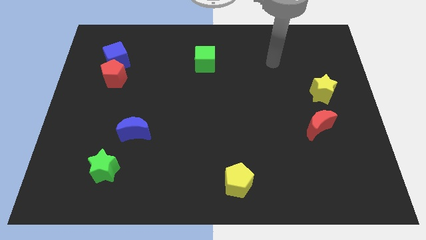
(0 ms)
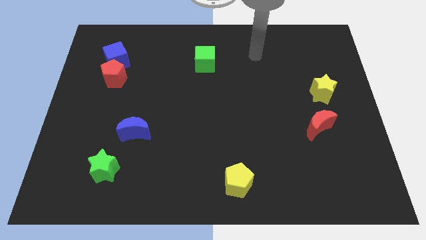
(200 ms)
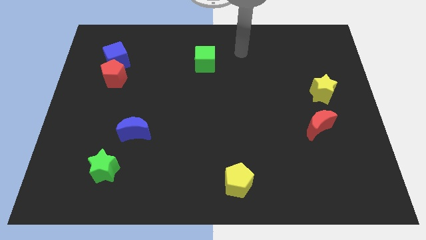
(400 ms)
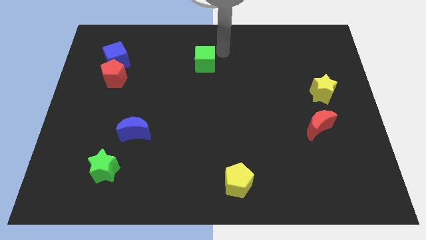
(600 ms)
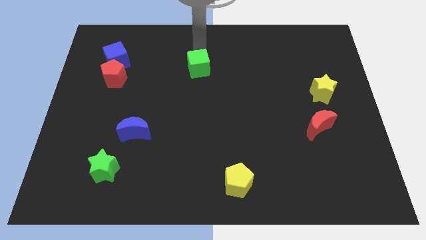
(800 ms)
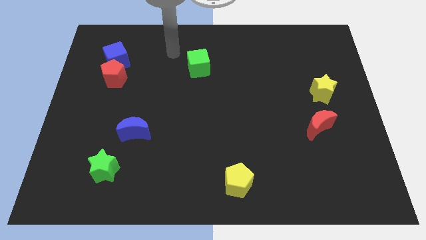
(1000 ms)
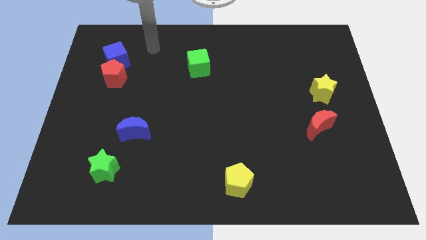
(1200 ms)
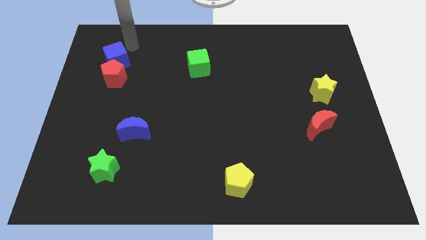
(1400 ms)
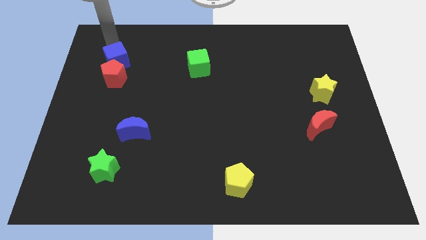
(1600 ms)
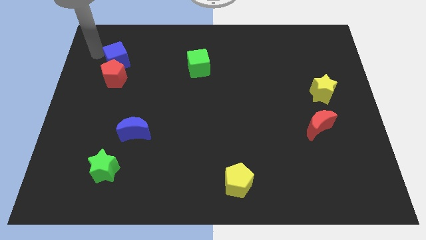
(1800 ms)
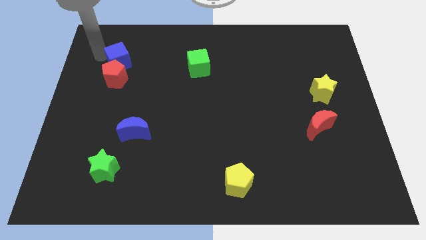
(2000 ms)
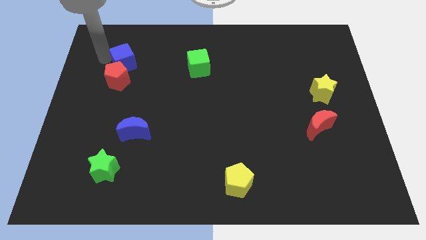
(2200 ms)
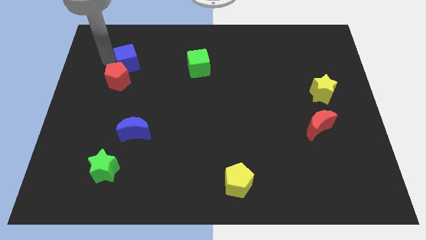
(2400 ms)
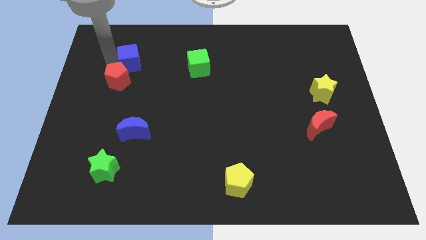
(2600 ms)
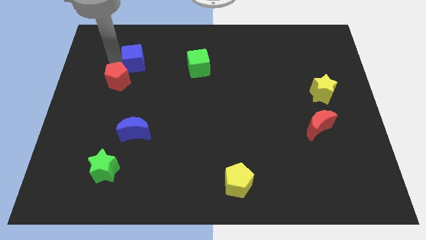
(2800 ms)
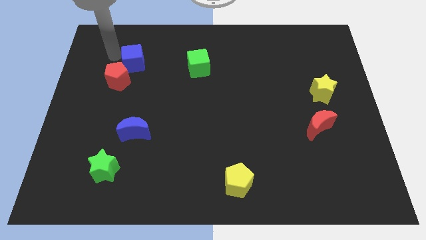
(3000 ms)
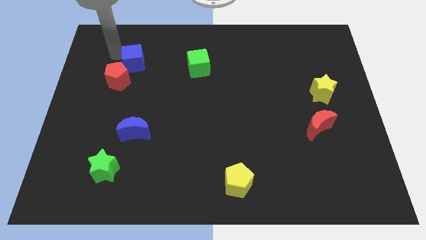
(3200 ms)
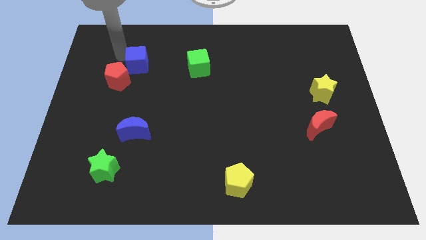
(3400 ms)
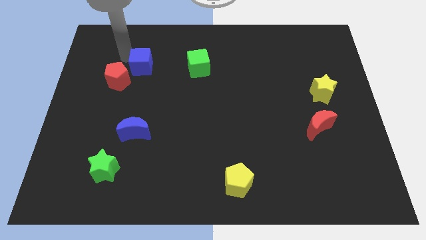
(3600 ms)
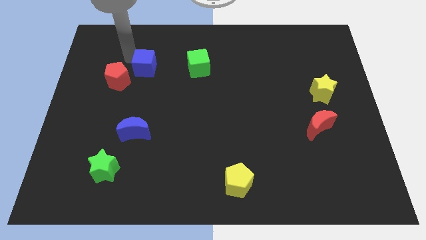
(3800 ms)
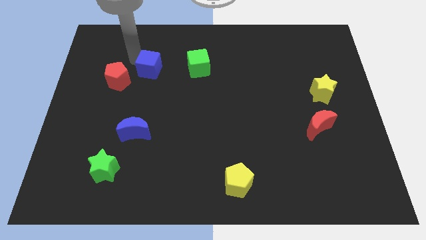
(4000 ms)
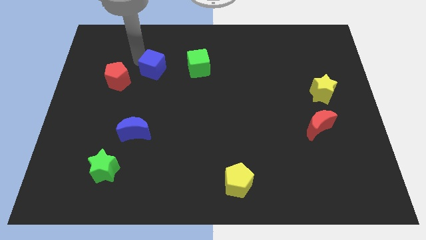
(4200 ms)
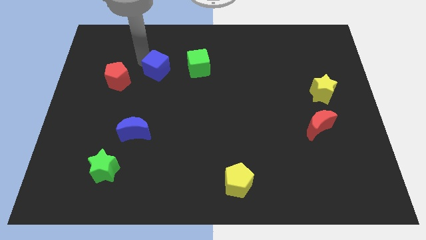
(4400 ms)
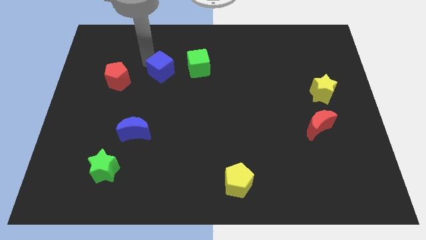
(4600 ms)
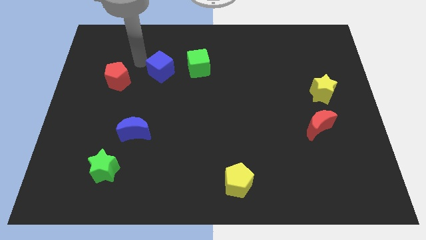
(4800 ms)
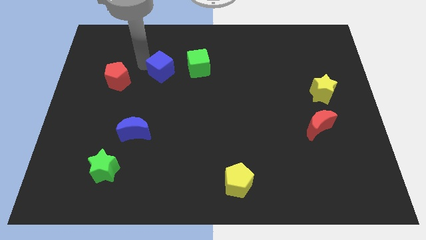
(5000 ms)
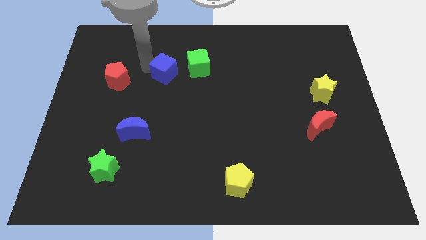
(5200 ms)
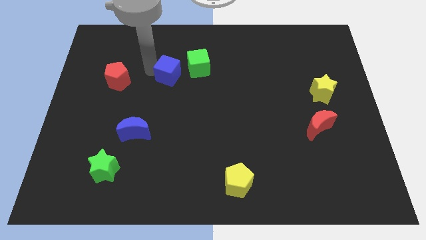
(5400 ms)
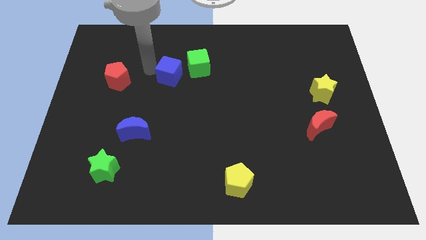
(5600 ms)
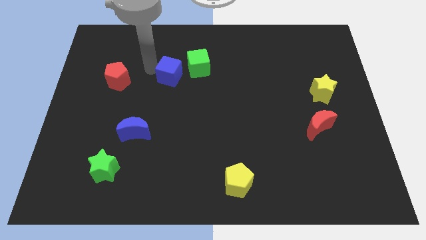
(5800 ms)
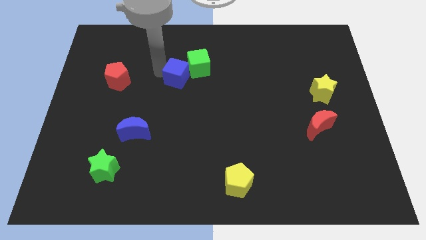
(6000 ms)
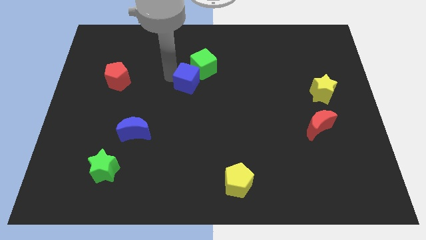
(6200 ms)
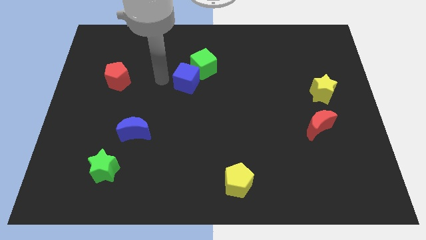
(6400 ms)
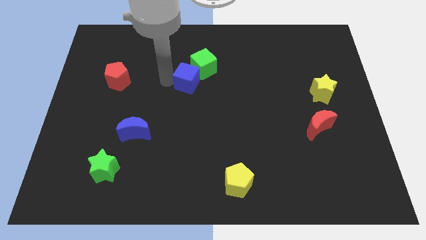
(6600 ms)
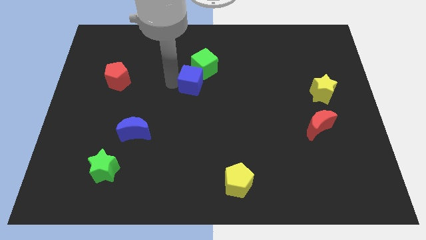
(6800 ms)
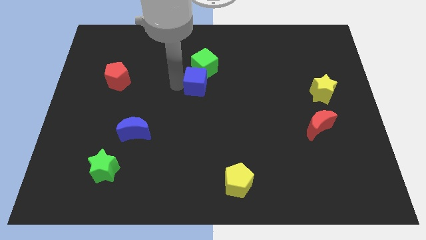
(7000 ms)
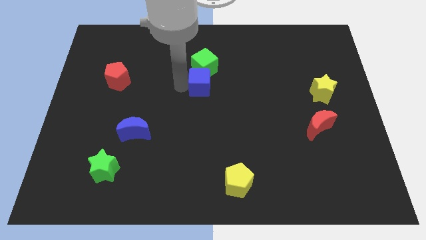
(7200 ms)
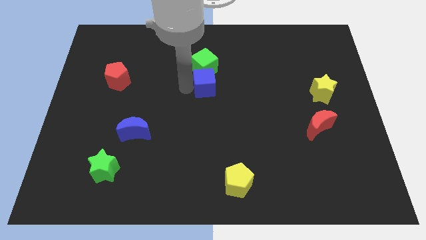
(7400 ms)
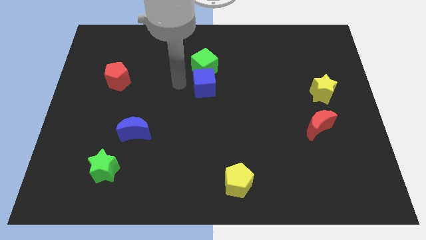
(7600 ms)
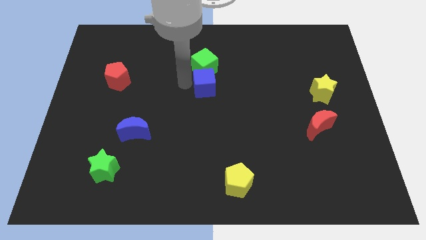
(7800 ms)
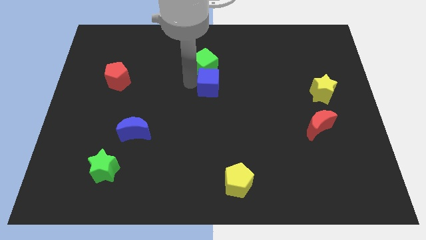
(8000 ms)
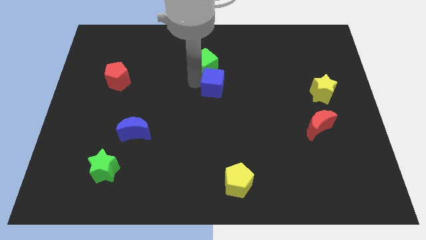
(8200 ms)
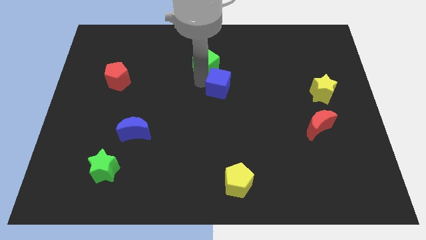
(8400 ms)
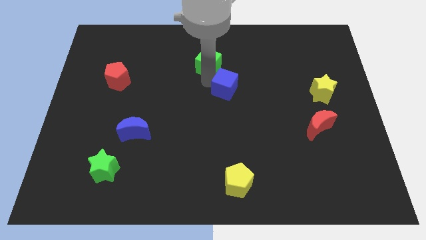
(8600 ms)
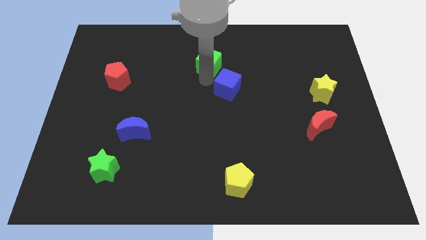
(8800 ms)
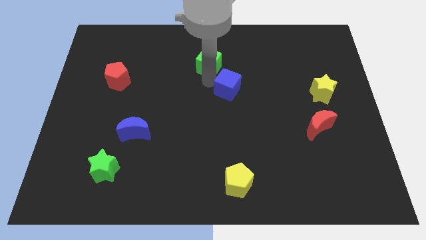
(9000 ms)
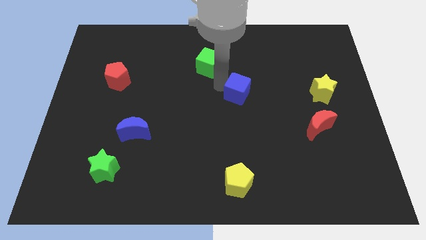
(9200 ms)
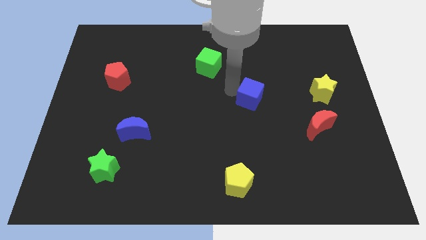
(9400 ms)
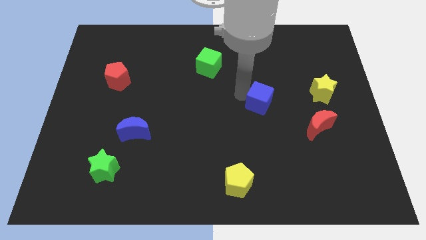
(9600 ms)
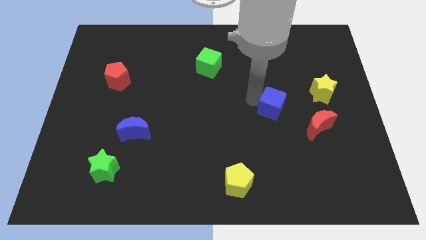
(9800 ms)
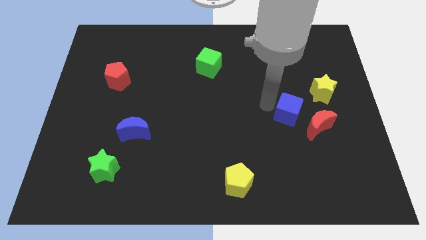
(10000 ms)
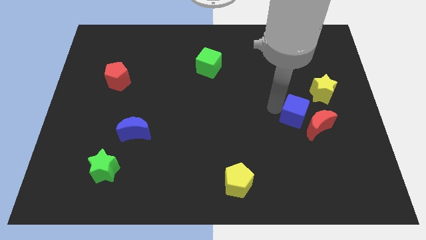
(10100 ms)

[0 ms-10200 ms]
push the blue cube to the red moon

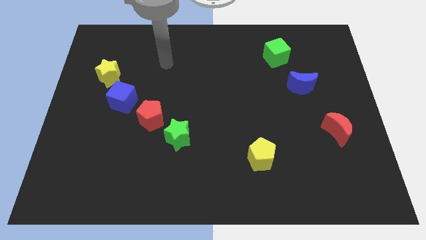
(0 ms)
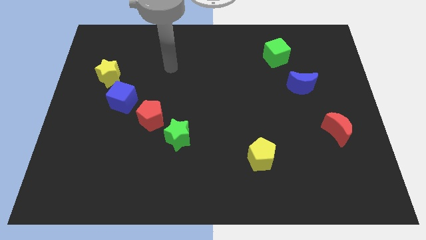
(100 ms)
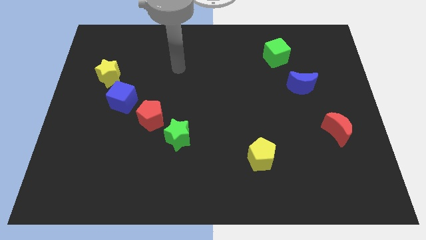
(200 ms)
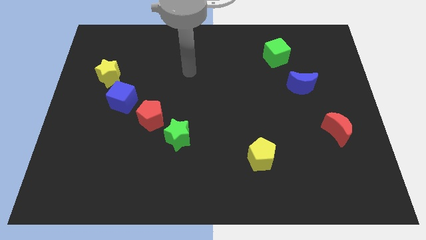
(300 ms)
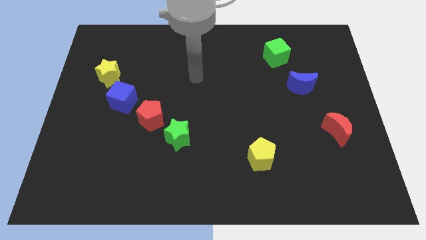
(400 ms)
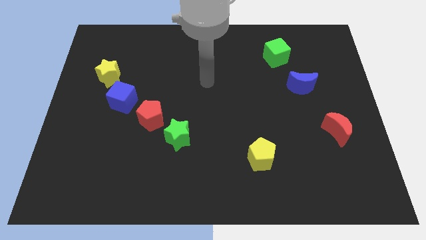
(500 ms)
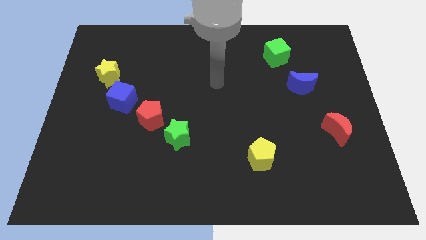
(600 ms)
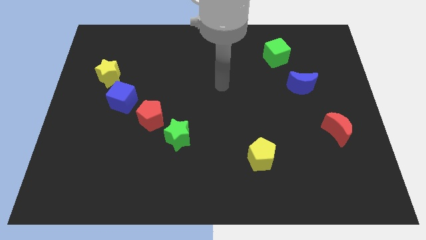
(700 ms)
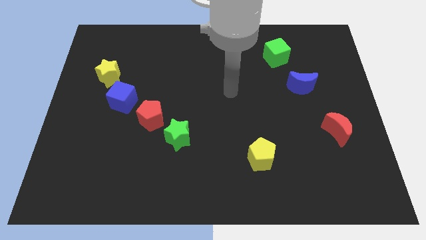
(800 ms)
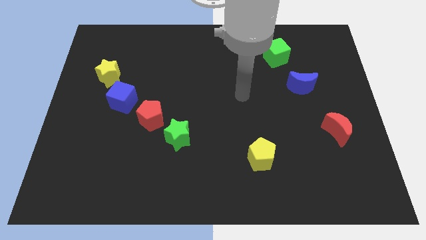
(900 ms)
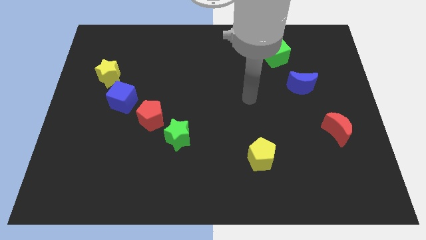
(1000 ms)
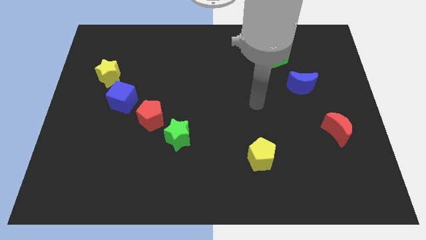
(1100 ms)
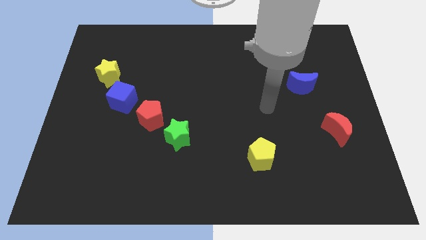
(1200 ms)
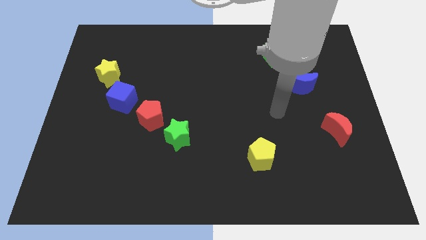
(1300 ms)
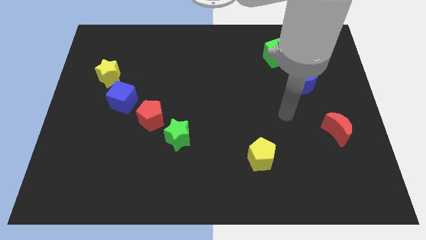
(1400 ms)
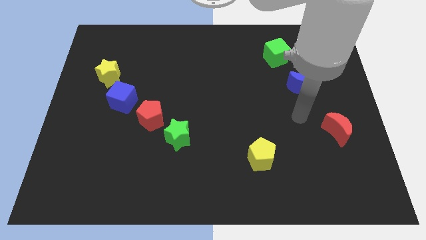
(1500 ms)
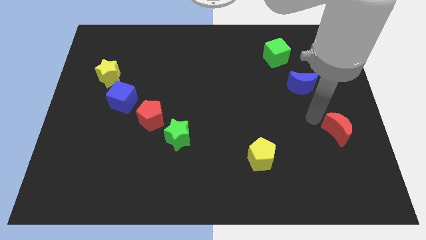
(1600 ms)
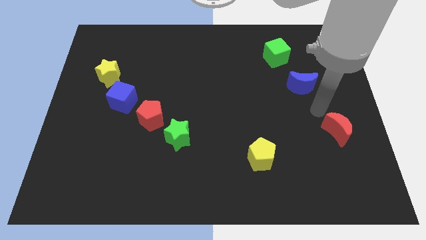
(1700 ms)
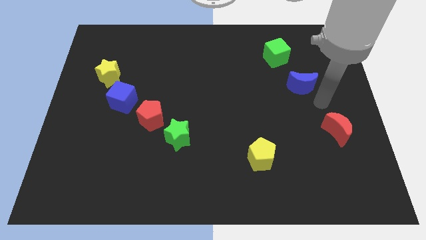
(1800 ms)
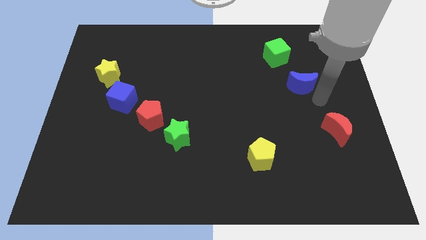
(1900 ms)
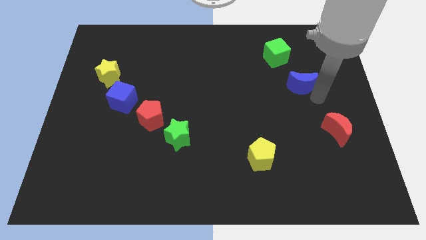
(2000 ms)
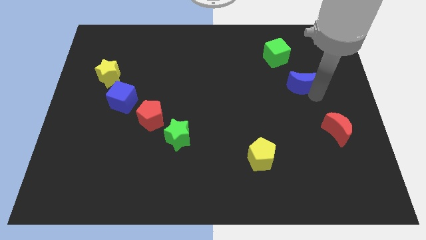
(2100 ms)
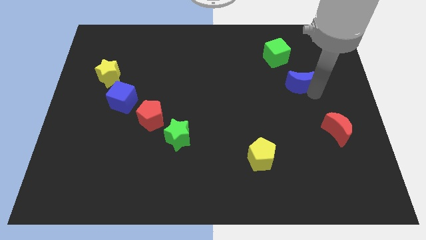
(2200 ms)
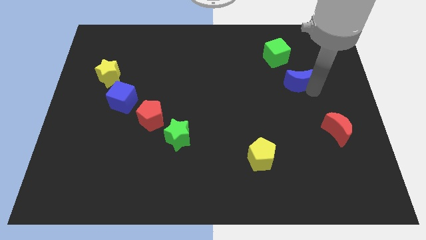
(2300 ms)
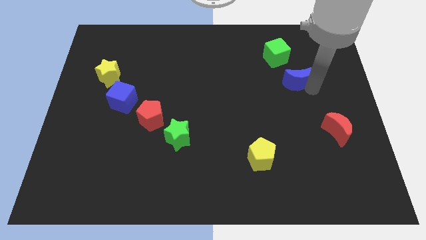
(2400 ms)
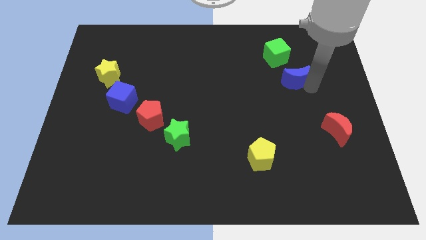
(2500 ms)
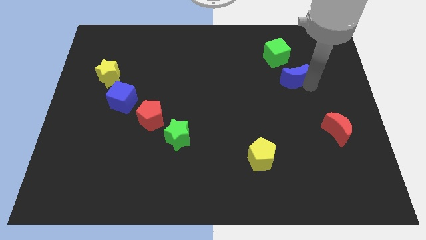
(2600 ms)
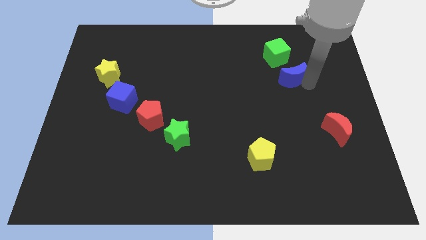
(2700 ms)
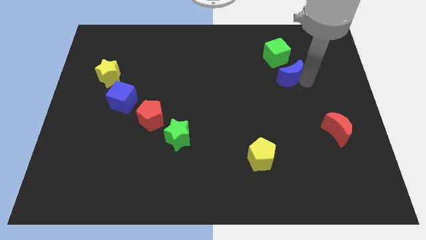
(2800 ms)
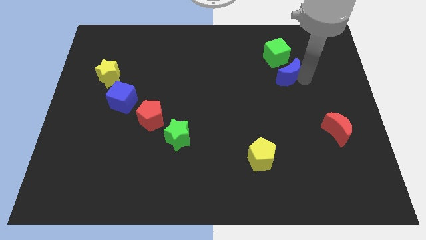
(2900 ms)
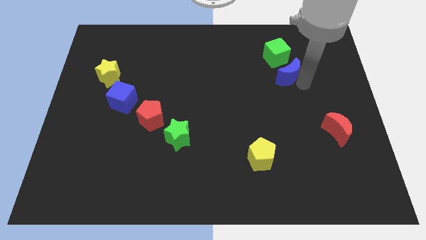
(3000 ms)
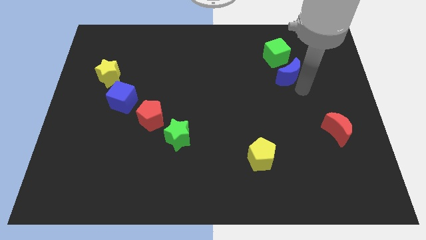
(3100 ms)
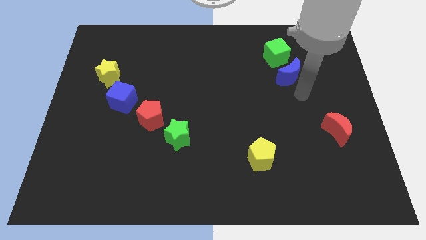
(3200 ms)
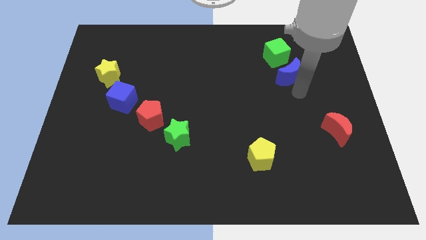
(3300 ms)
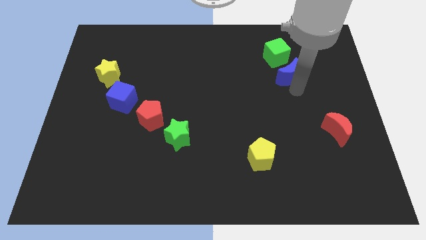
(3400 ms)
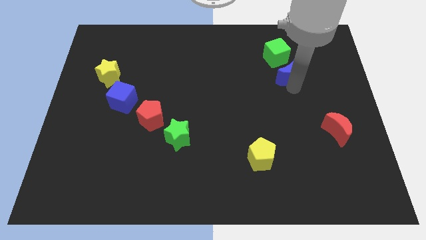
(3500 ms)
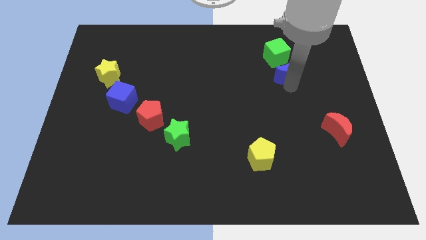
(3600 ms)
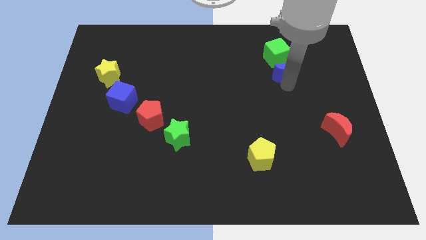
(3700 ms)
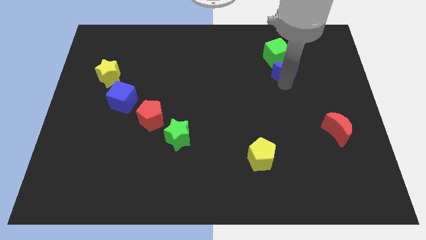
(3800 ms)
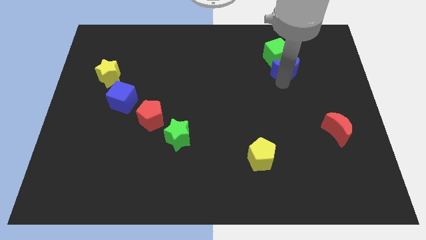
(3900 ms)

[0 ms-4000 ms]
put the blue moon to the green cube
